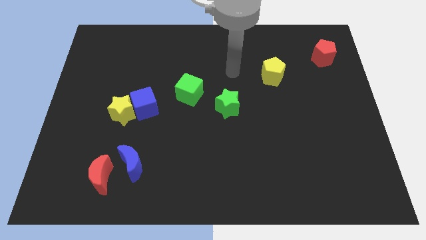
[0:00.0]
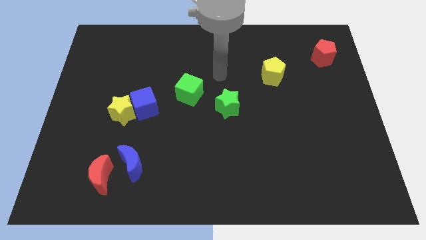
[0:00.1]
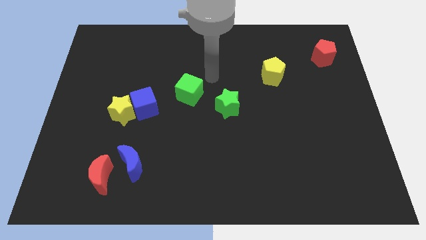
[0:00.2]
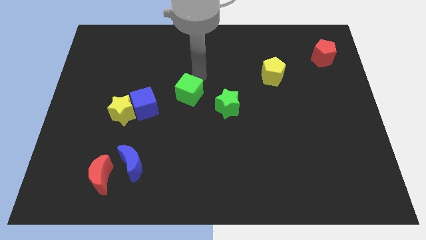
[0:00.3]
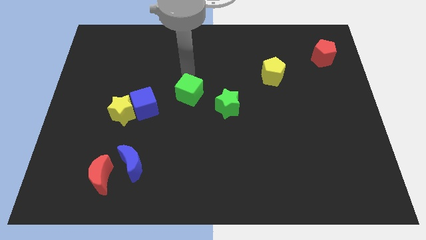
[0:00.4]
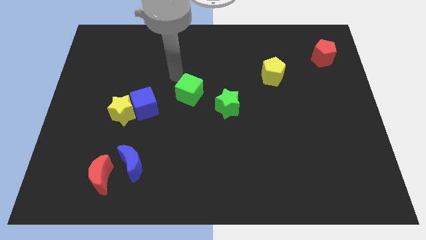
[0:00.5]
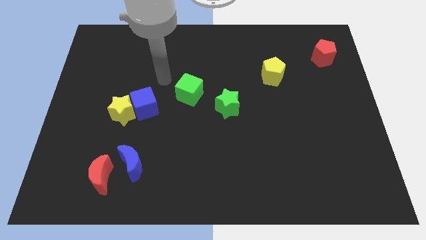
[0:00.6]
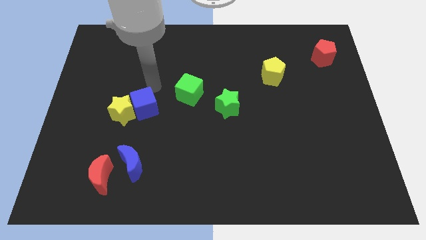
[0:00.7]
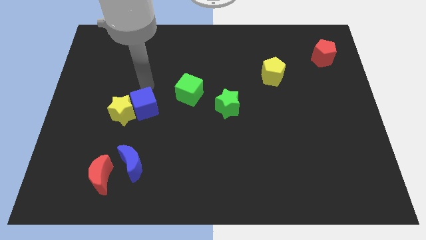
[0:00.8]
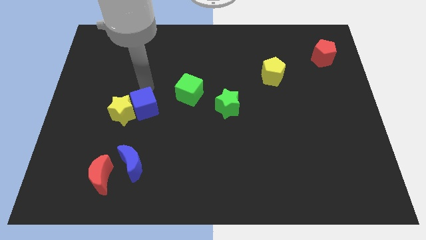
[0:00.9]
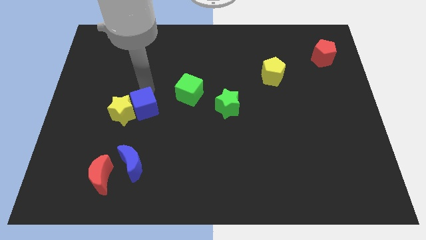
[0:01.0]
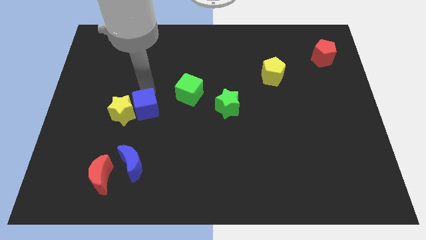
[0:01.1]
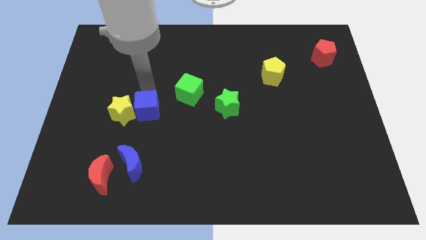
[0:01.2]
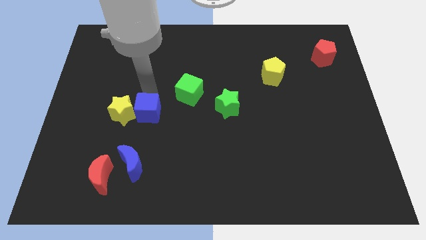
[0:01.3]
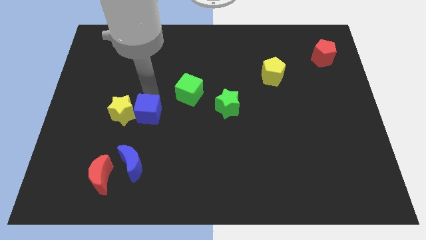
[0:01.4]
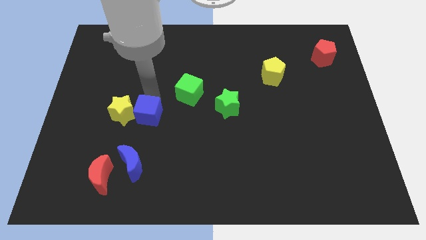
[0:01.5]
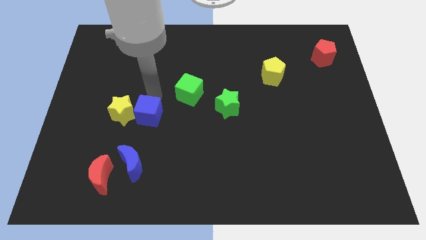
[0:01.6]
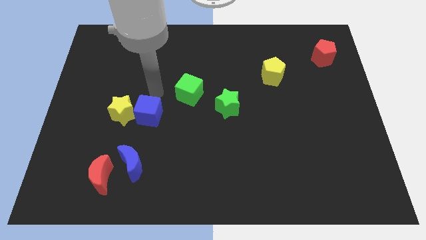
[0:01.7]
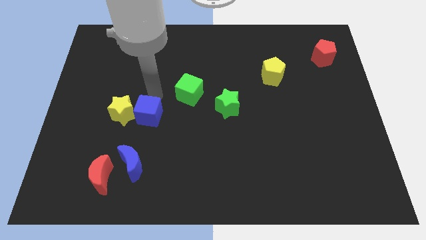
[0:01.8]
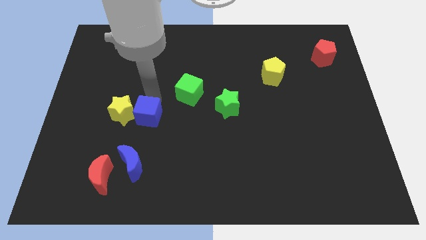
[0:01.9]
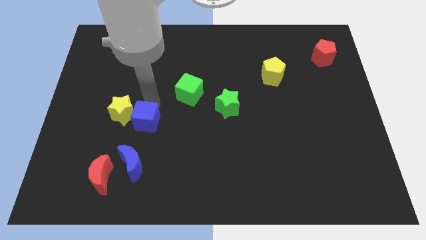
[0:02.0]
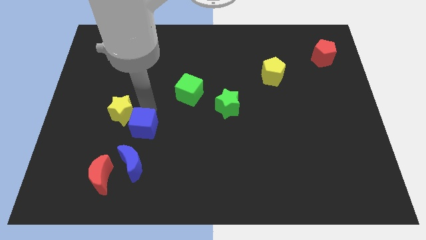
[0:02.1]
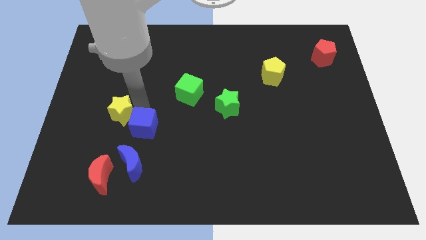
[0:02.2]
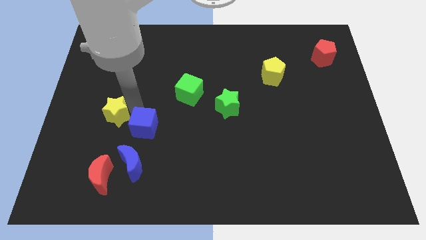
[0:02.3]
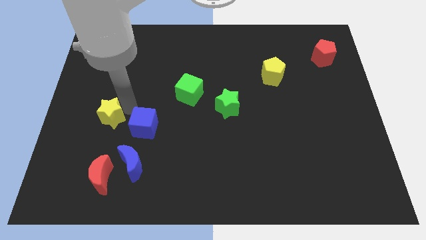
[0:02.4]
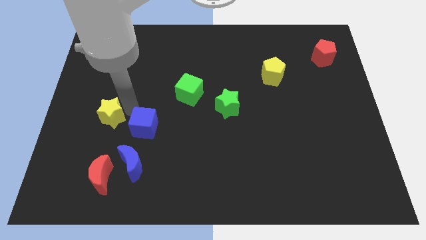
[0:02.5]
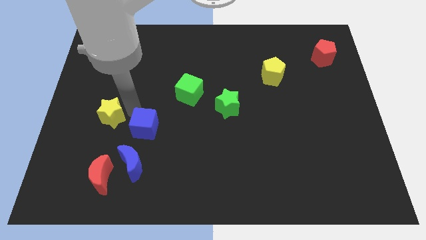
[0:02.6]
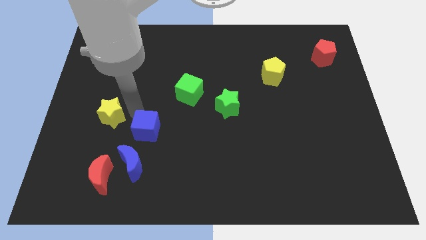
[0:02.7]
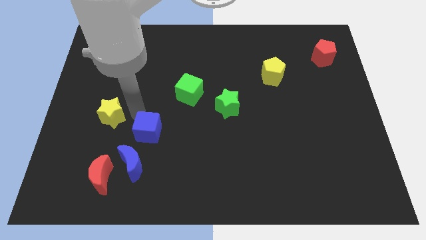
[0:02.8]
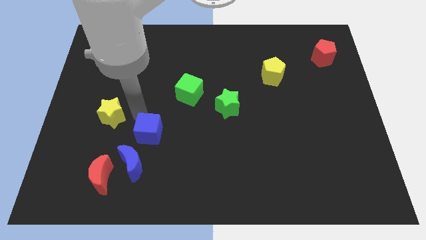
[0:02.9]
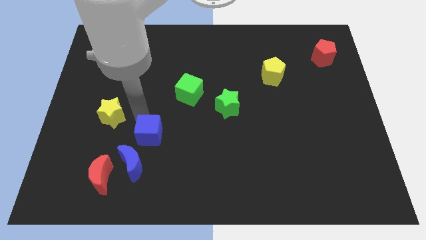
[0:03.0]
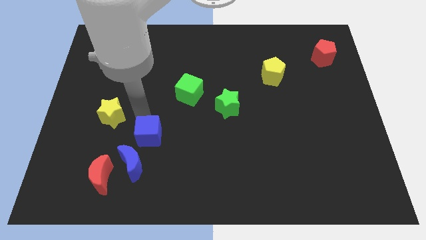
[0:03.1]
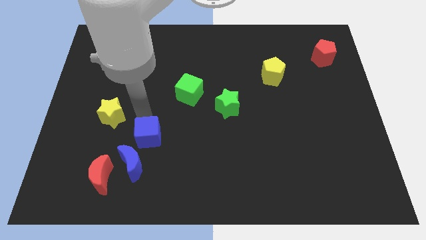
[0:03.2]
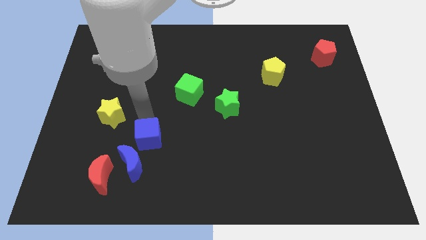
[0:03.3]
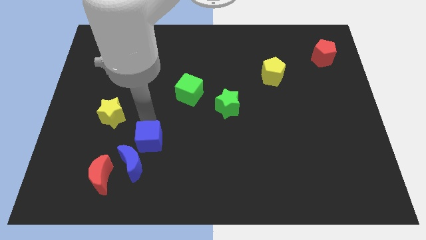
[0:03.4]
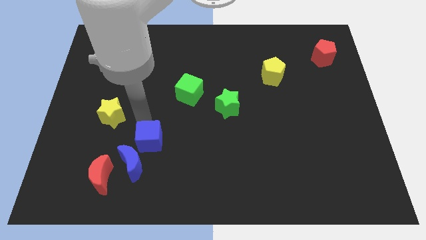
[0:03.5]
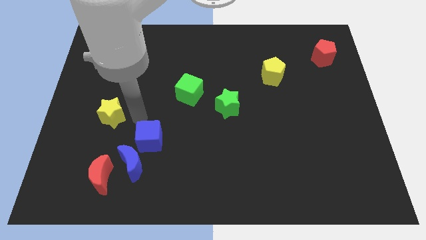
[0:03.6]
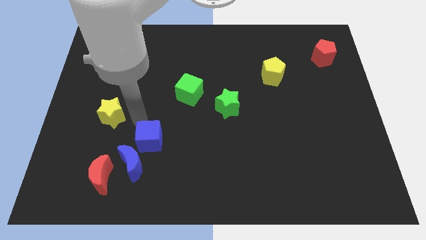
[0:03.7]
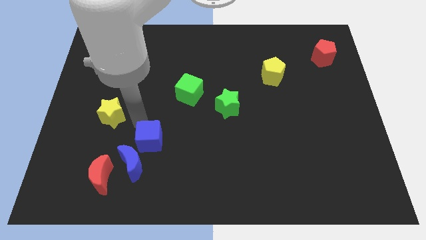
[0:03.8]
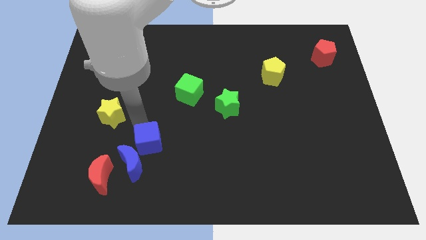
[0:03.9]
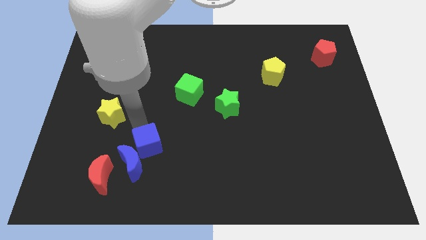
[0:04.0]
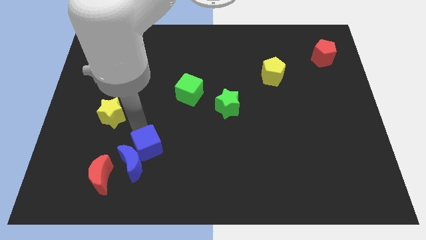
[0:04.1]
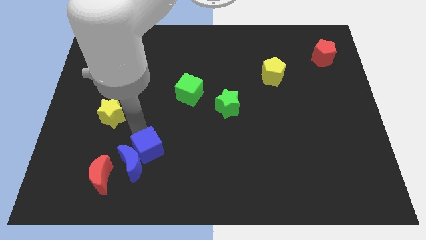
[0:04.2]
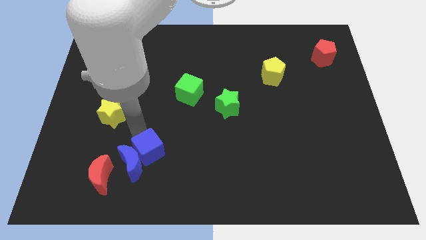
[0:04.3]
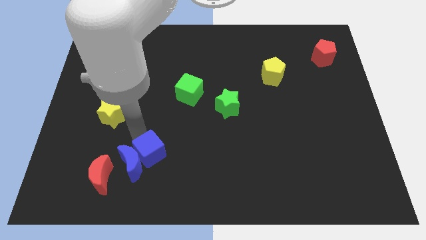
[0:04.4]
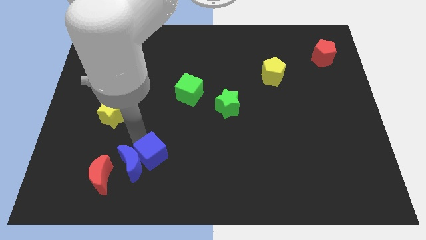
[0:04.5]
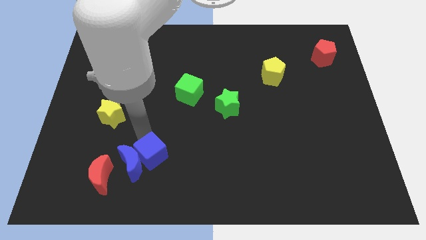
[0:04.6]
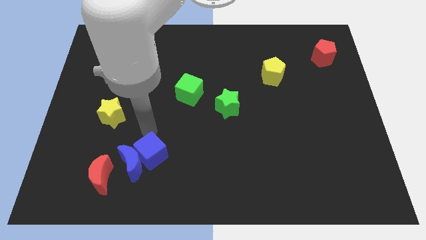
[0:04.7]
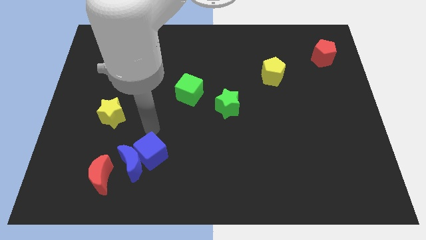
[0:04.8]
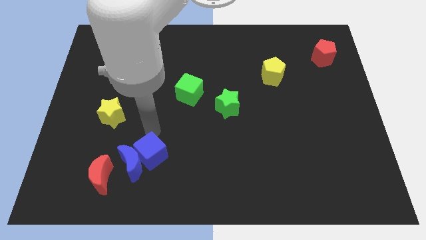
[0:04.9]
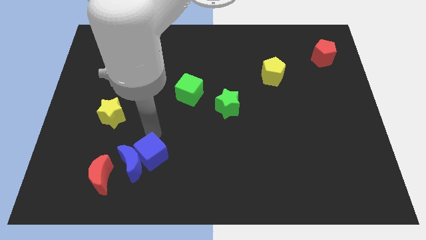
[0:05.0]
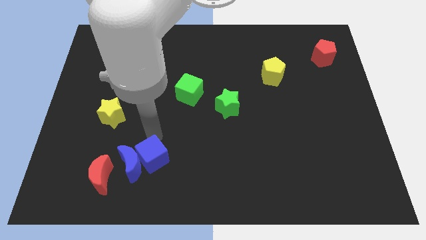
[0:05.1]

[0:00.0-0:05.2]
move the blue cube to the right side of the red moon

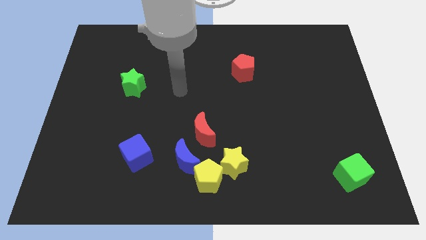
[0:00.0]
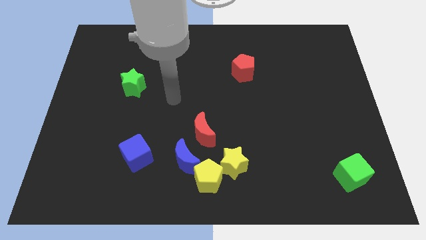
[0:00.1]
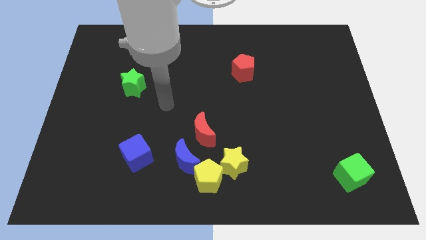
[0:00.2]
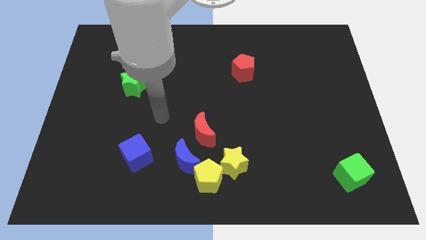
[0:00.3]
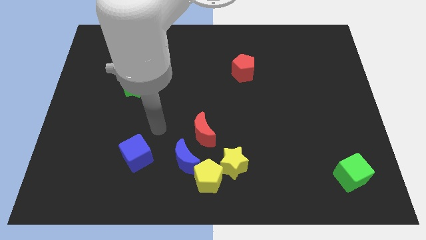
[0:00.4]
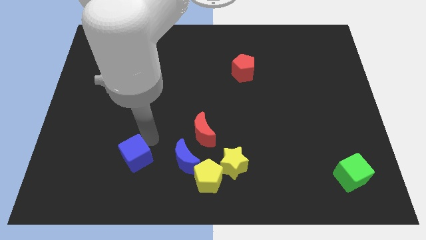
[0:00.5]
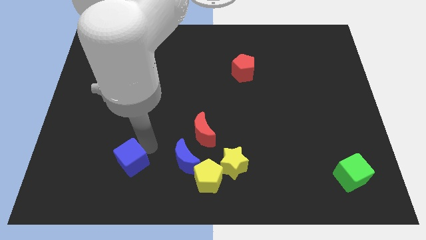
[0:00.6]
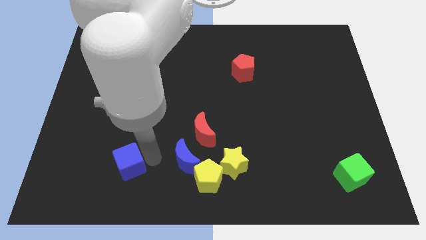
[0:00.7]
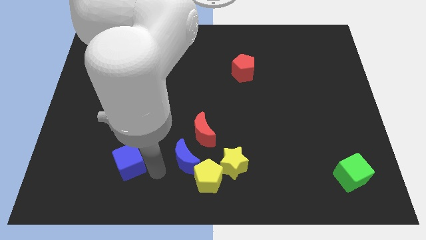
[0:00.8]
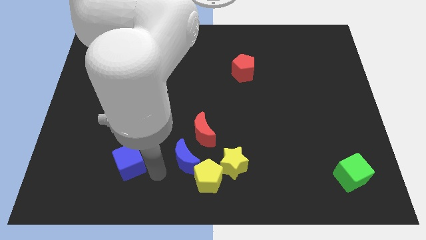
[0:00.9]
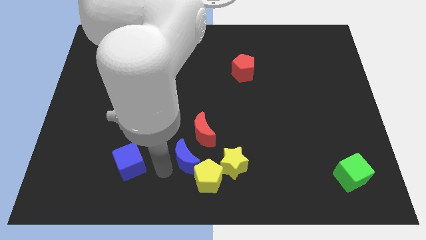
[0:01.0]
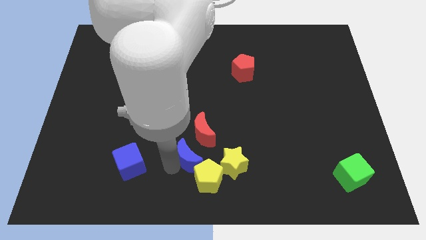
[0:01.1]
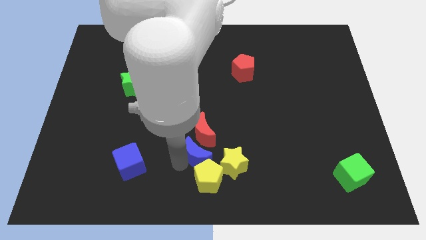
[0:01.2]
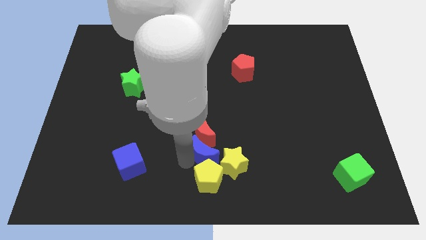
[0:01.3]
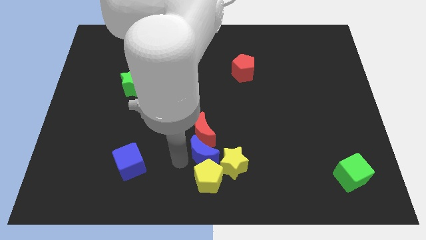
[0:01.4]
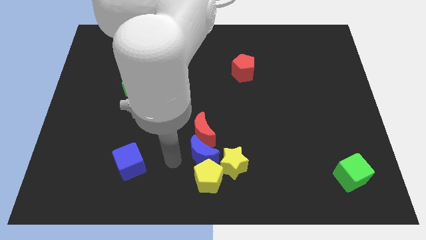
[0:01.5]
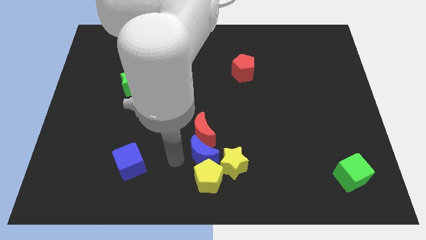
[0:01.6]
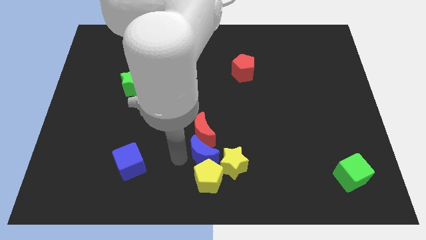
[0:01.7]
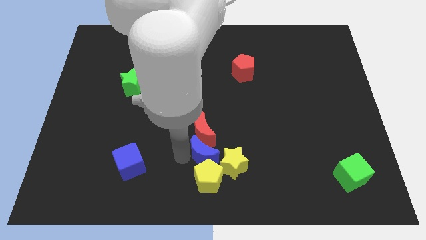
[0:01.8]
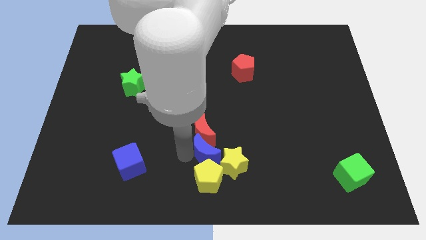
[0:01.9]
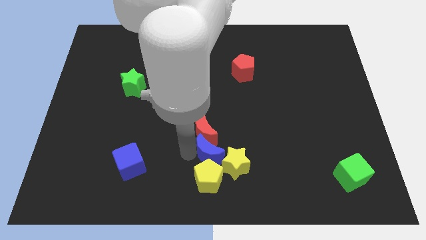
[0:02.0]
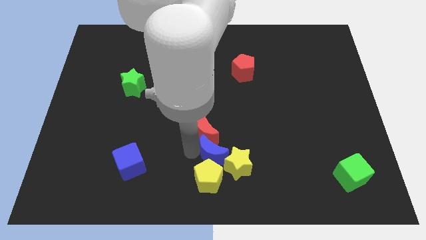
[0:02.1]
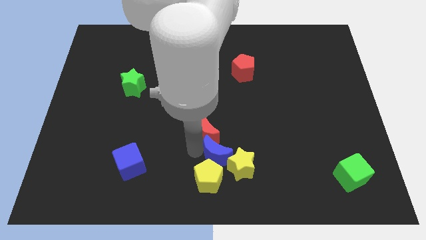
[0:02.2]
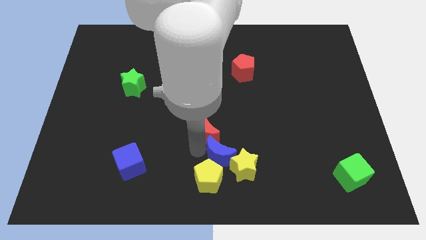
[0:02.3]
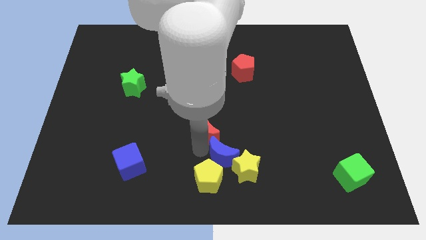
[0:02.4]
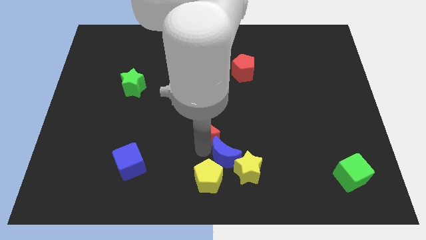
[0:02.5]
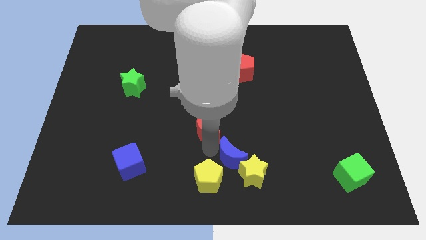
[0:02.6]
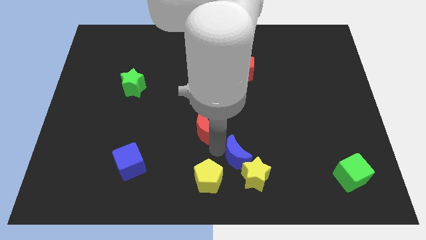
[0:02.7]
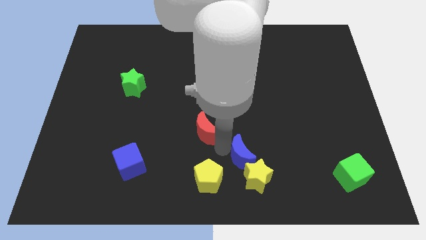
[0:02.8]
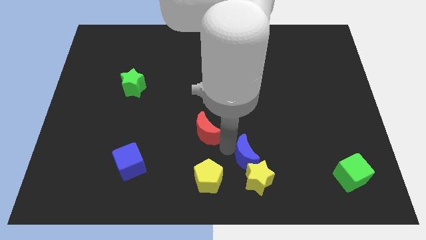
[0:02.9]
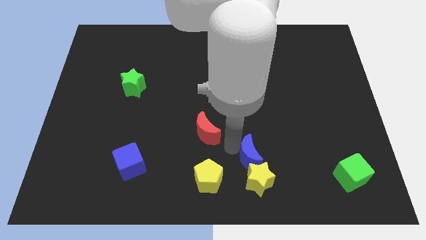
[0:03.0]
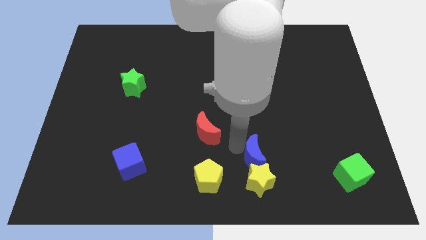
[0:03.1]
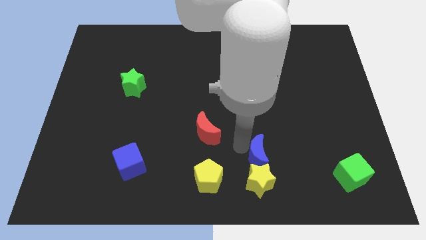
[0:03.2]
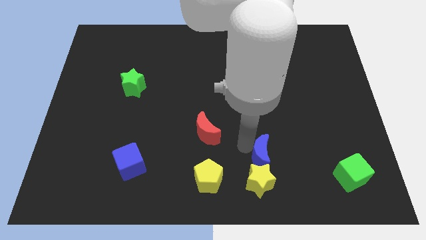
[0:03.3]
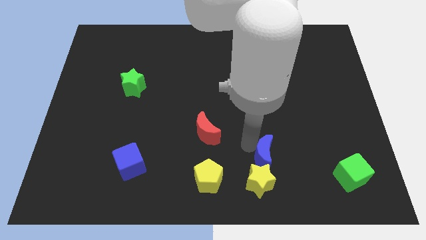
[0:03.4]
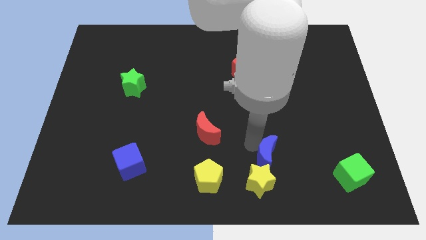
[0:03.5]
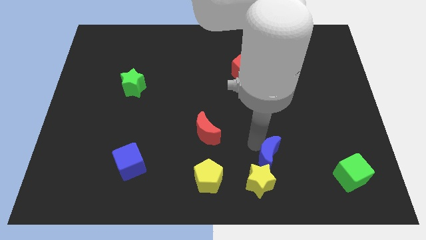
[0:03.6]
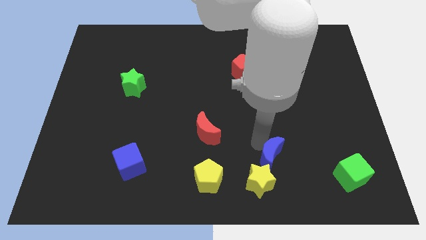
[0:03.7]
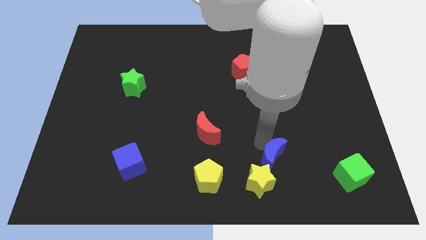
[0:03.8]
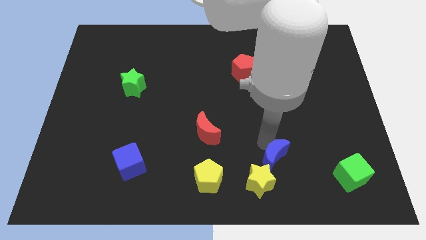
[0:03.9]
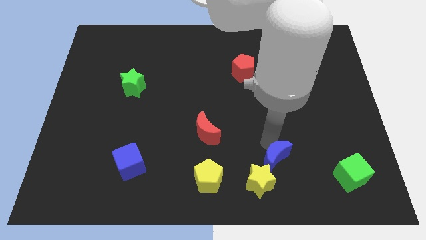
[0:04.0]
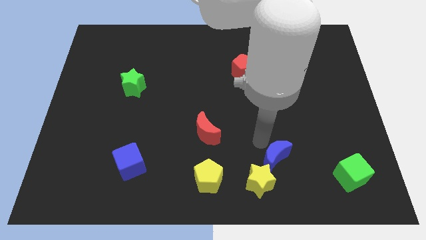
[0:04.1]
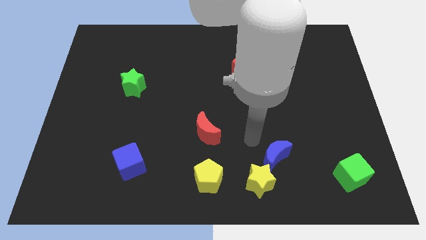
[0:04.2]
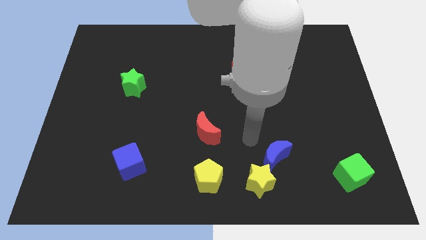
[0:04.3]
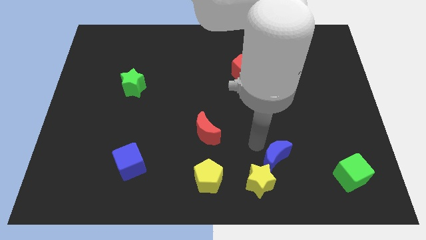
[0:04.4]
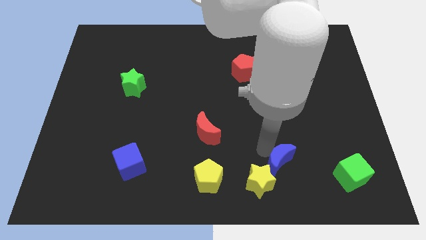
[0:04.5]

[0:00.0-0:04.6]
move the blue moon to the right of the yellow star
